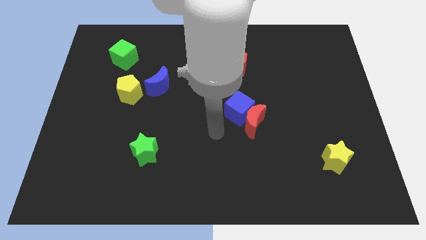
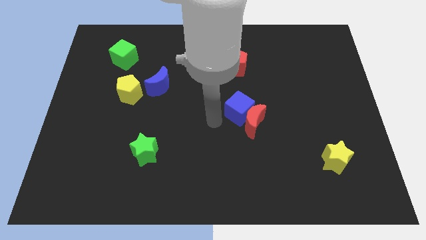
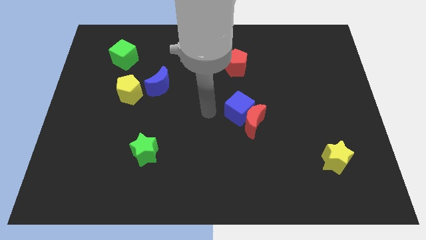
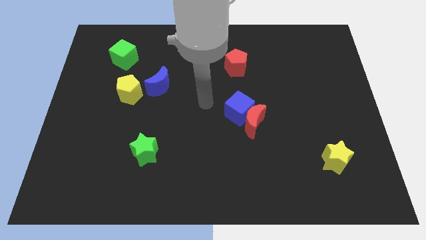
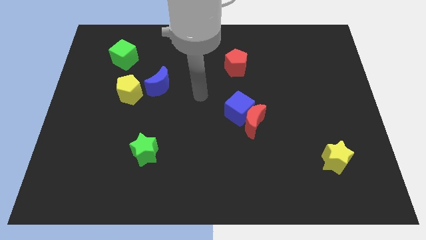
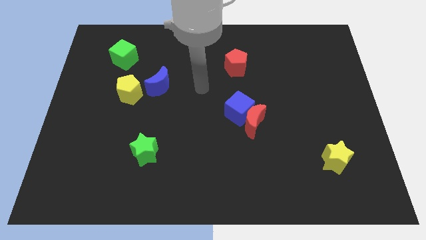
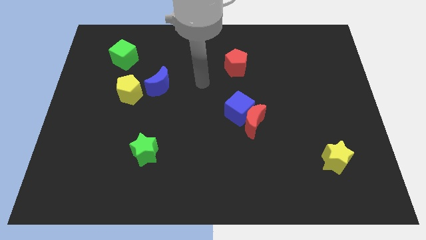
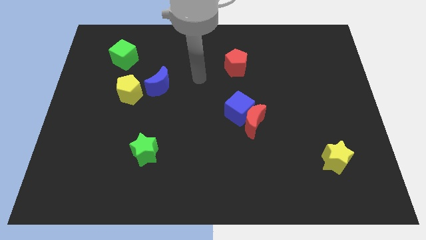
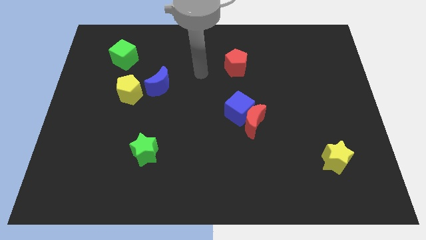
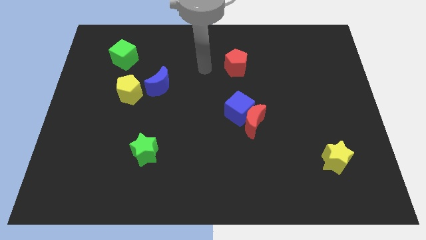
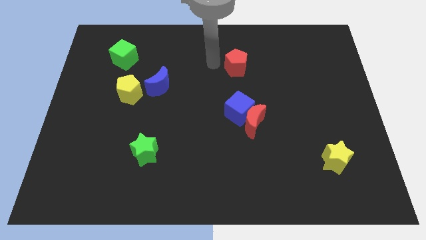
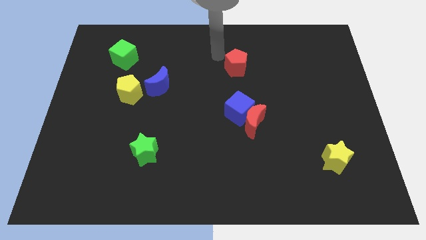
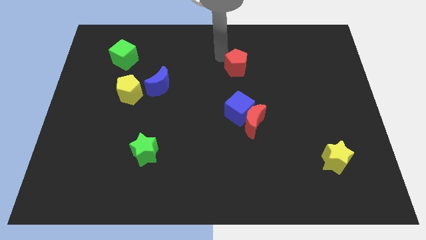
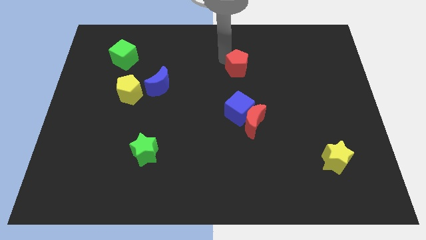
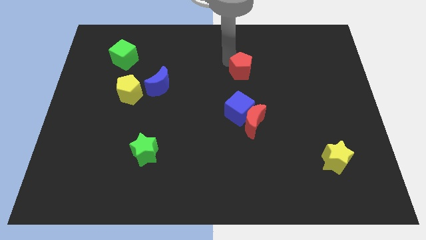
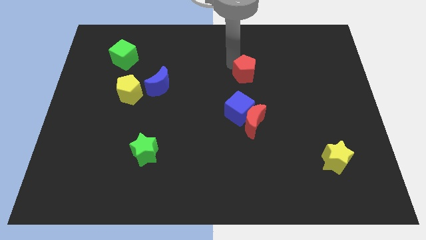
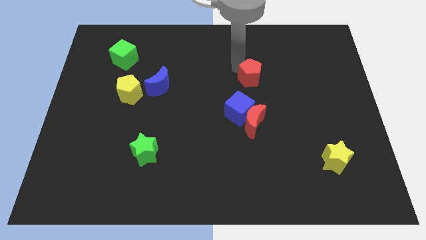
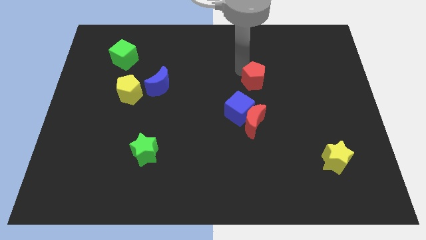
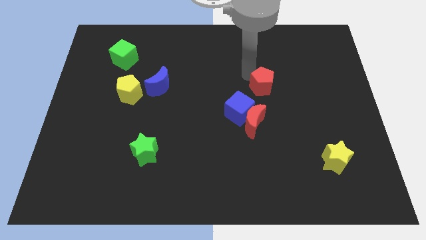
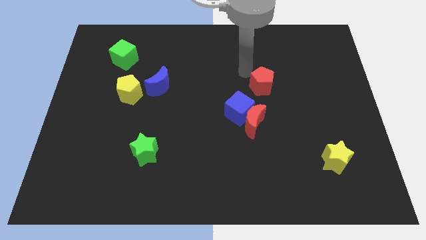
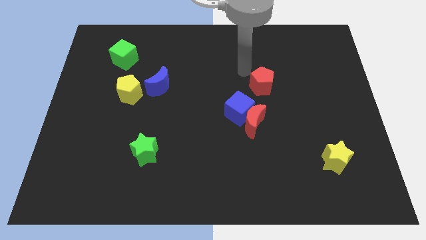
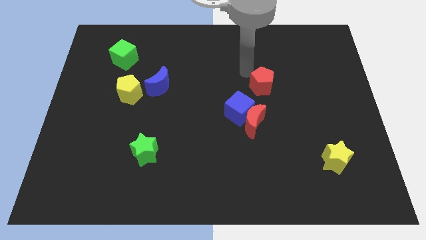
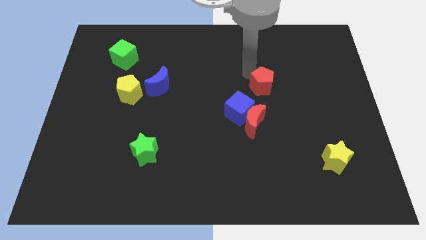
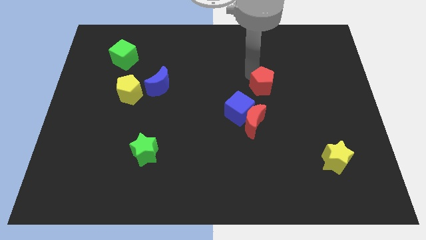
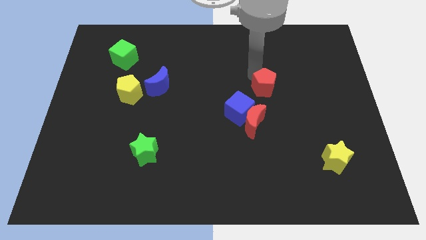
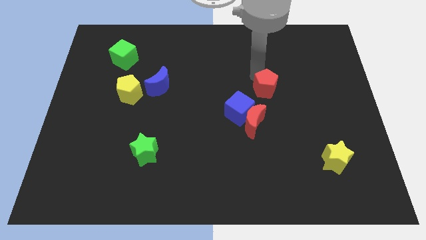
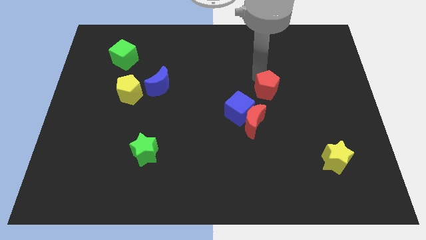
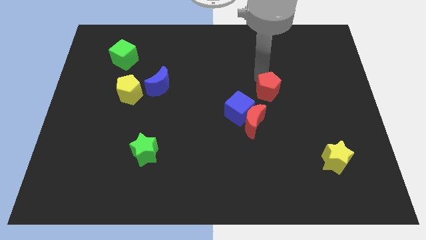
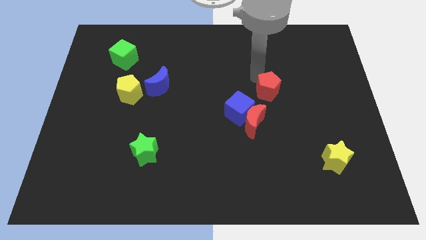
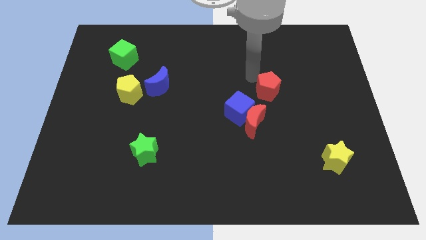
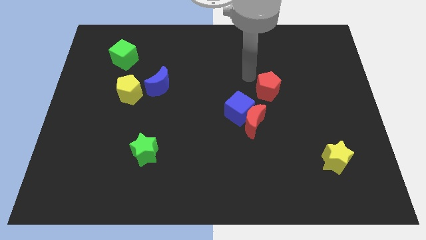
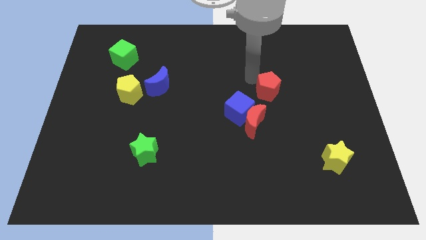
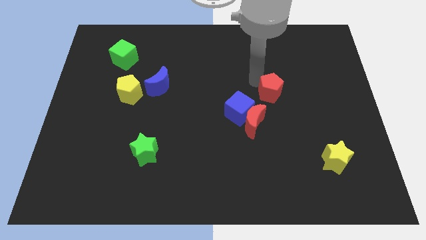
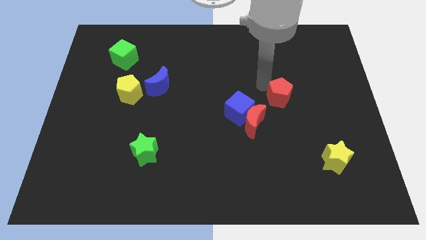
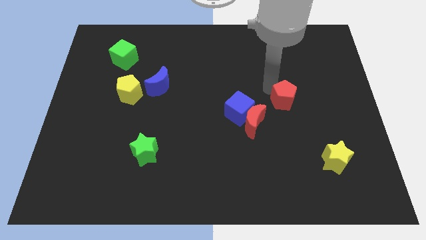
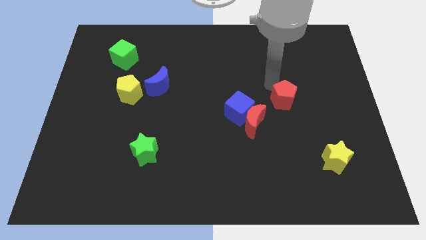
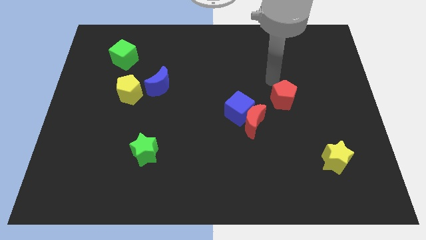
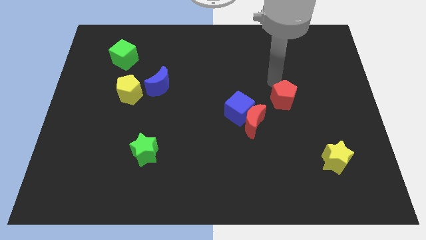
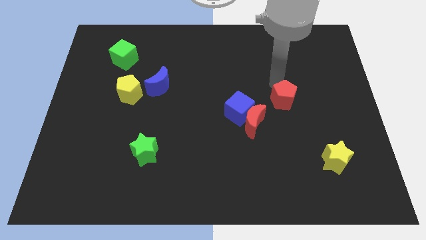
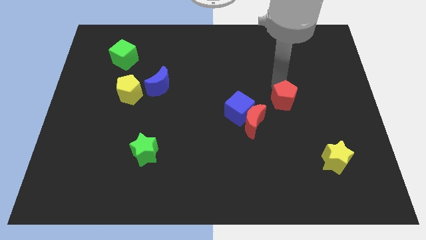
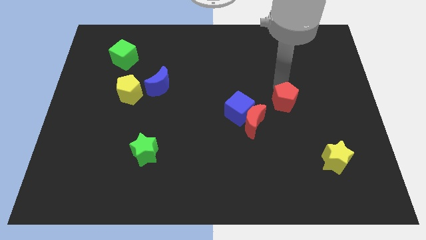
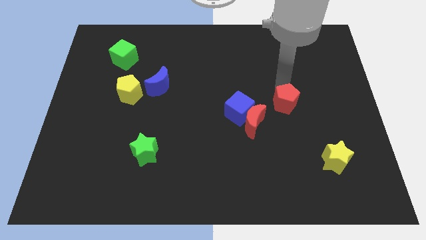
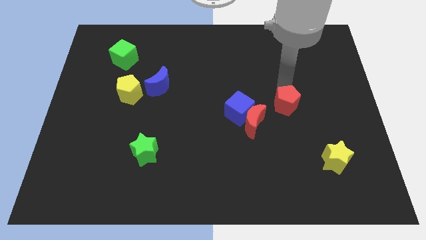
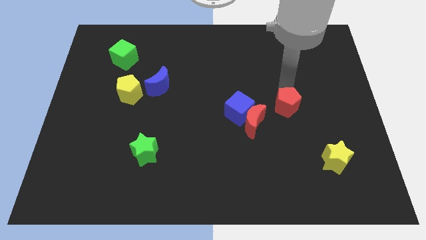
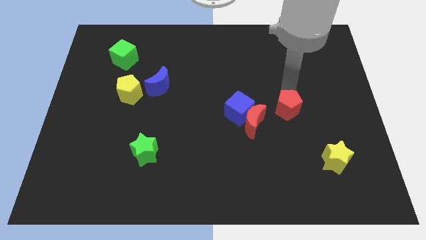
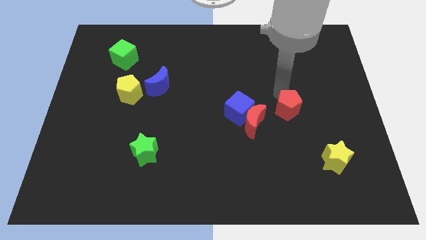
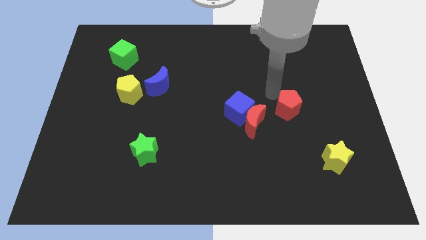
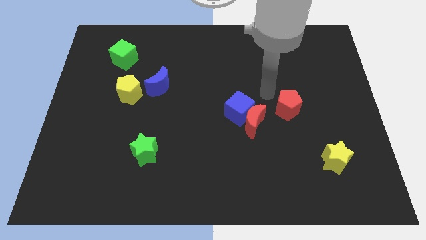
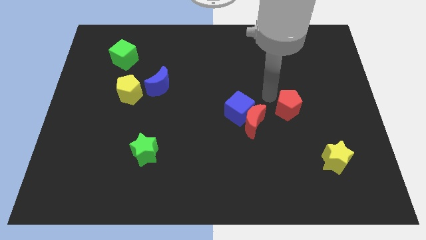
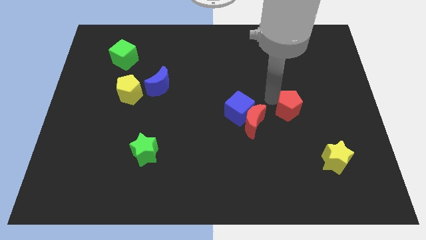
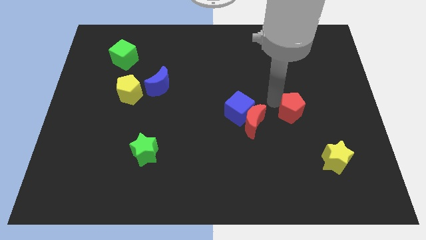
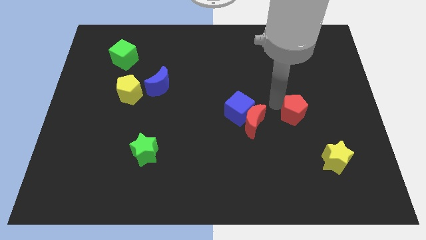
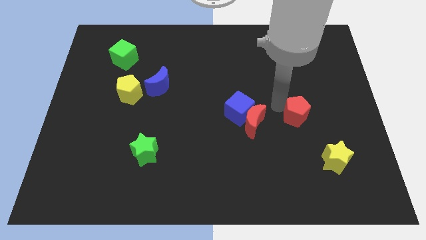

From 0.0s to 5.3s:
slide the red pentagon downwards and then to the right

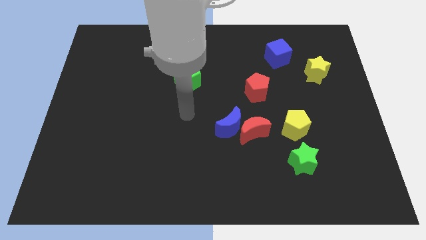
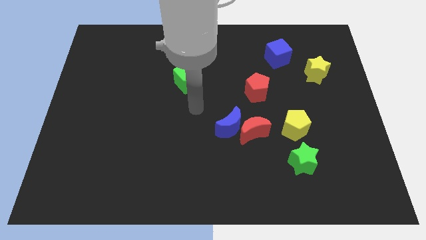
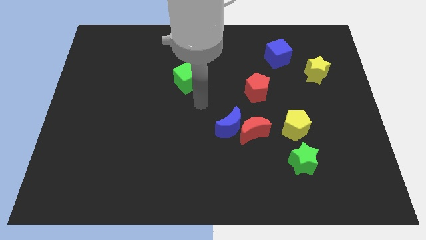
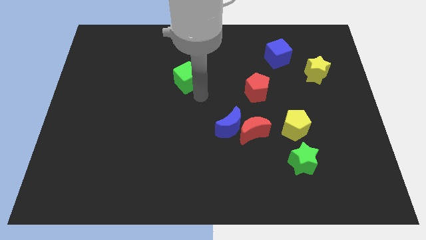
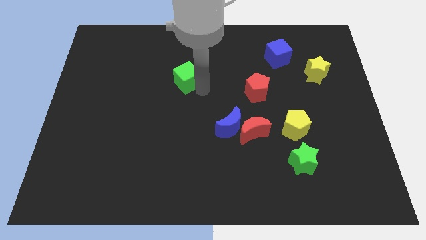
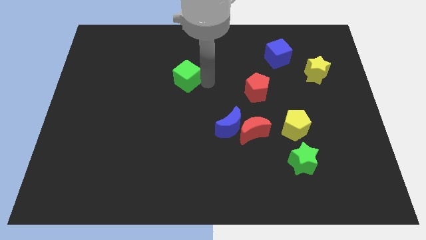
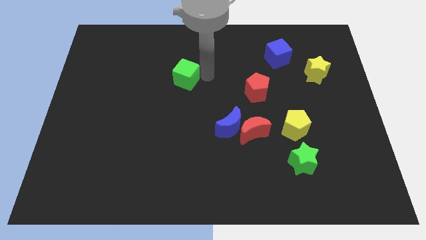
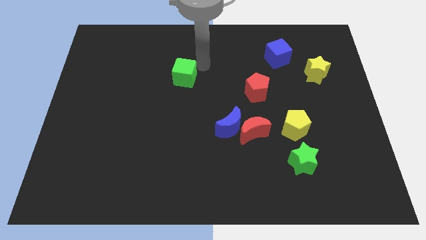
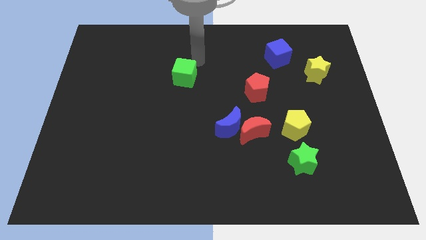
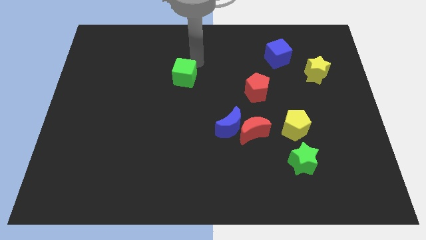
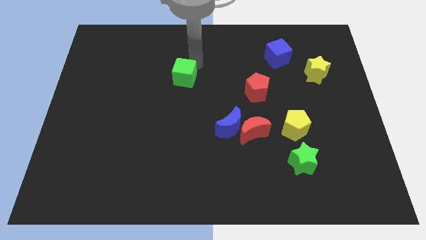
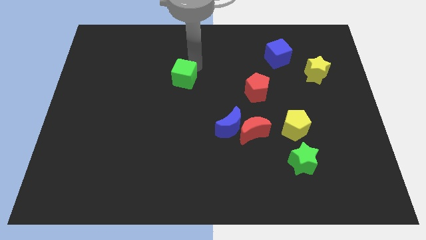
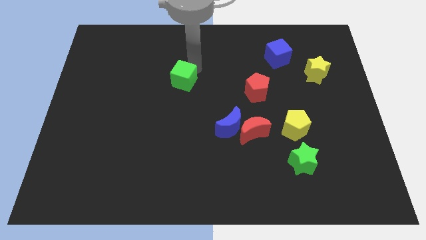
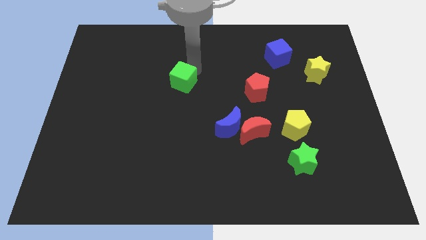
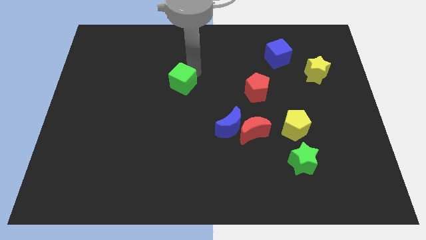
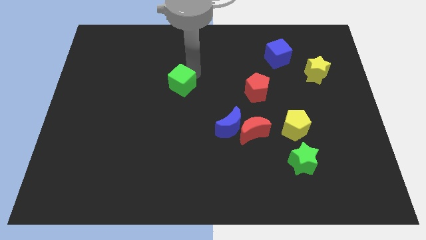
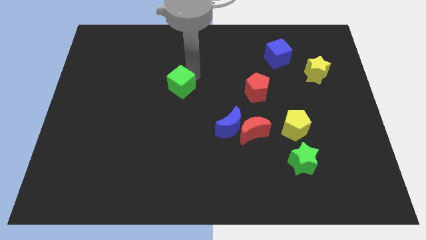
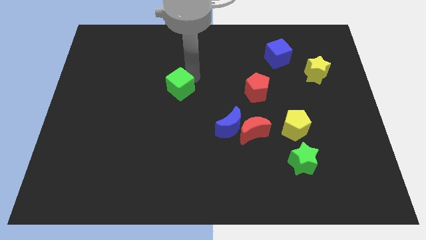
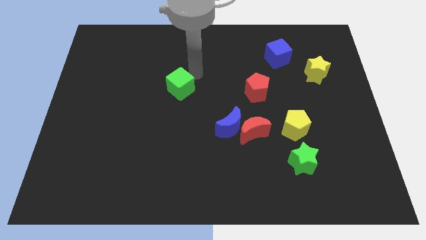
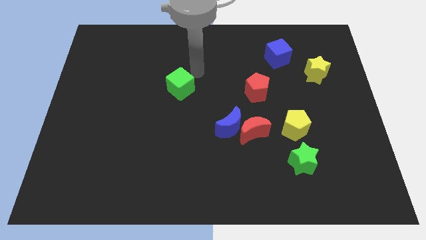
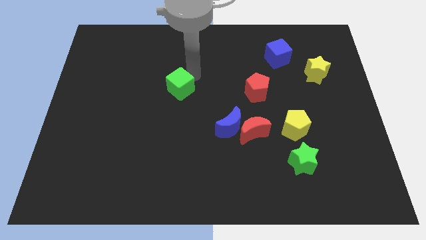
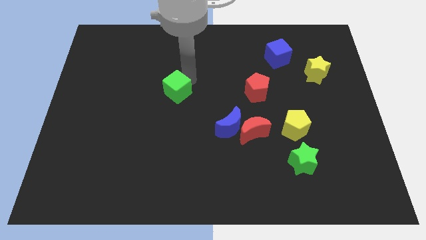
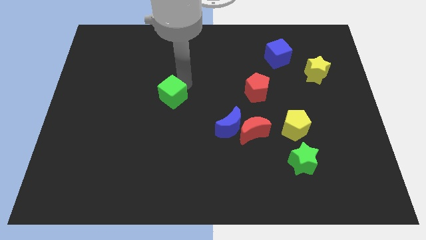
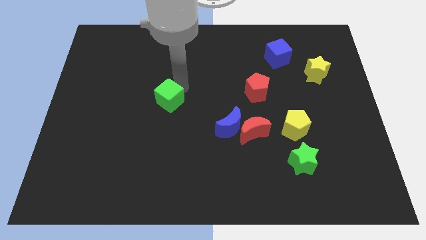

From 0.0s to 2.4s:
move the green cube somewhat downwards and left
